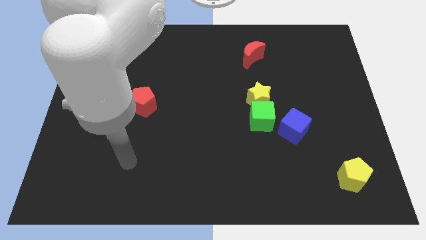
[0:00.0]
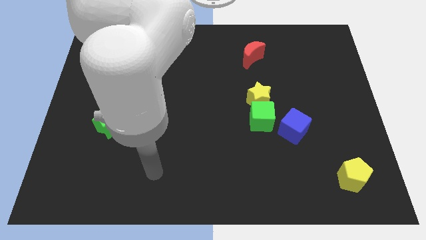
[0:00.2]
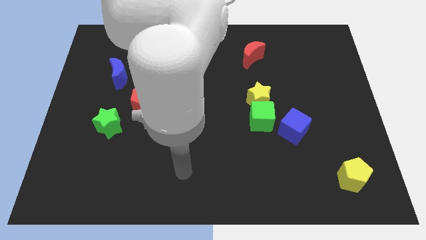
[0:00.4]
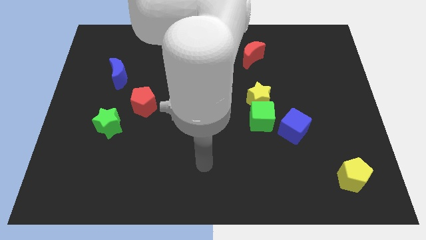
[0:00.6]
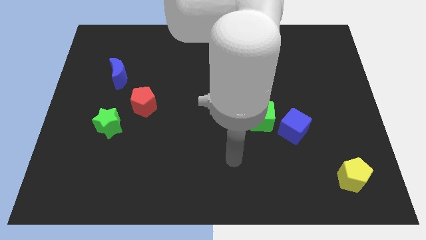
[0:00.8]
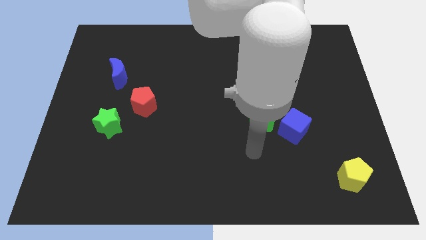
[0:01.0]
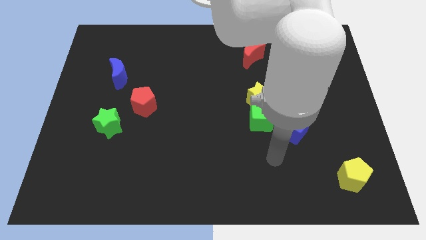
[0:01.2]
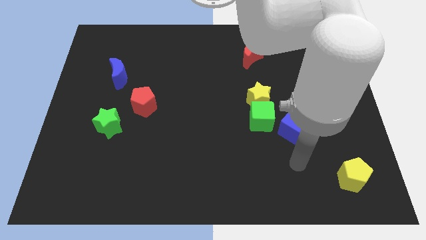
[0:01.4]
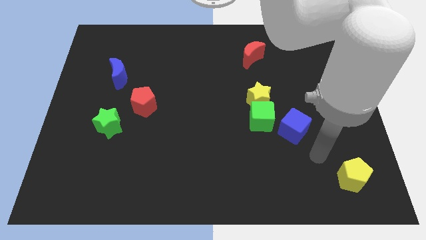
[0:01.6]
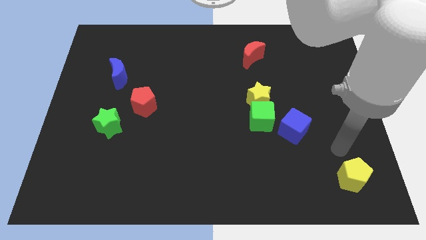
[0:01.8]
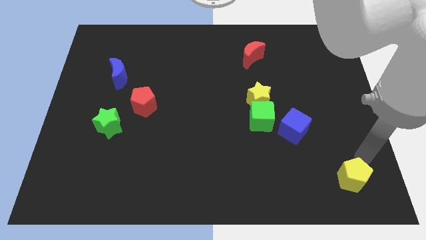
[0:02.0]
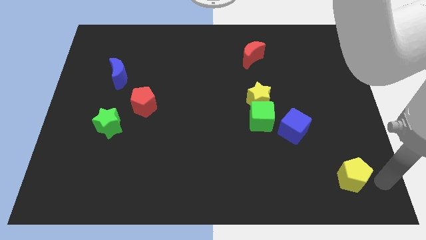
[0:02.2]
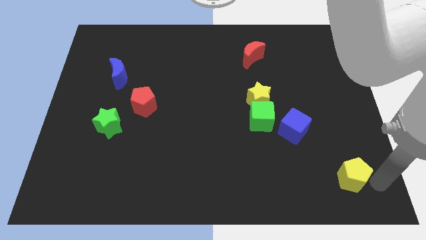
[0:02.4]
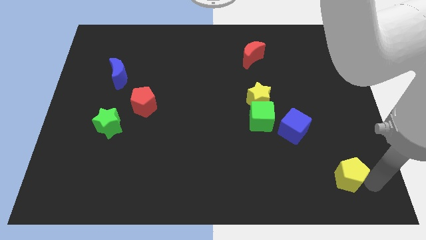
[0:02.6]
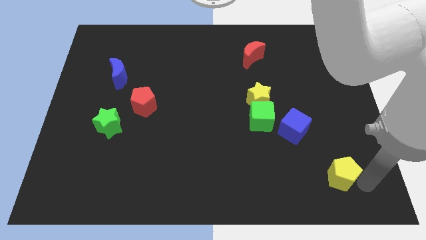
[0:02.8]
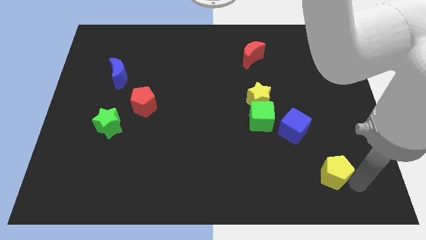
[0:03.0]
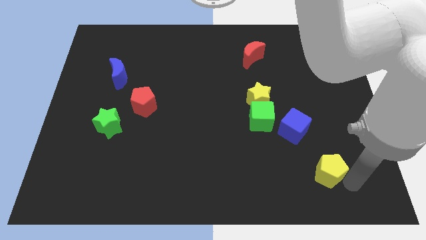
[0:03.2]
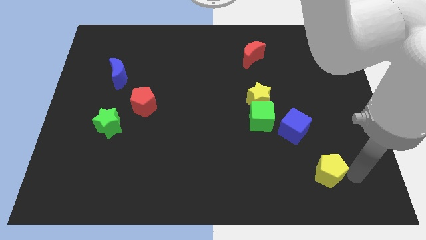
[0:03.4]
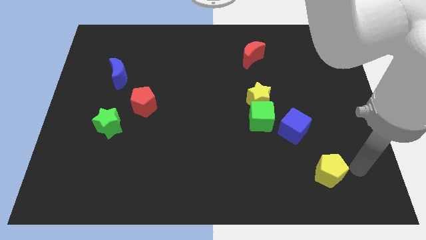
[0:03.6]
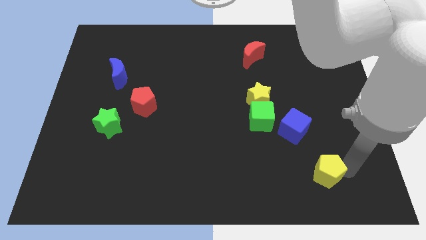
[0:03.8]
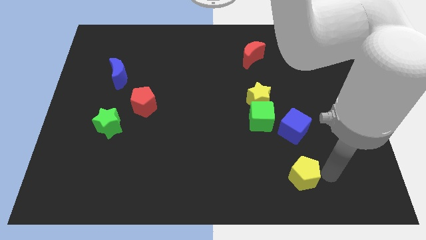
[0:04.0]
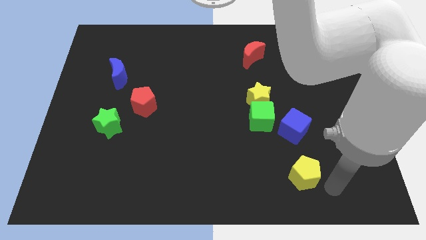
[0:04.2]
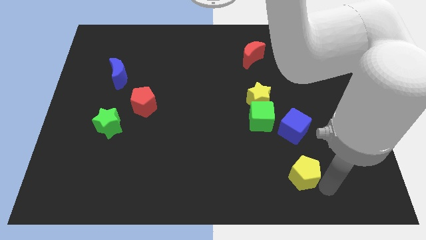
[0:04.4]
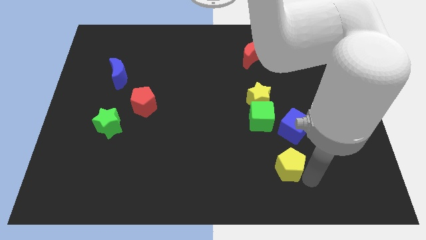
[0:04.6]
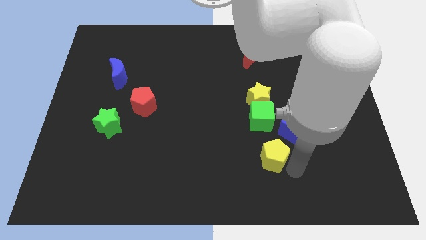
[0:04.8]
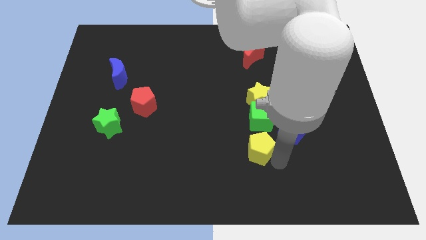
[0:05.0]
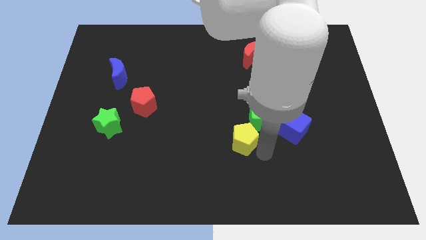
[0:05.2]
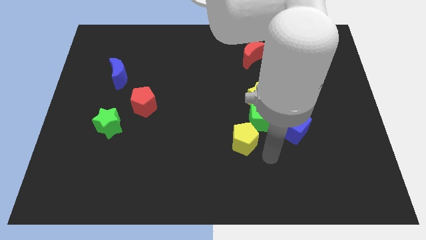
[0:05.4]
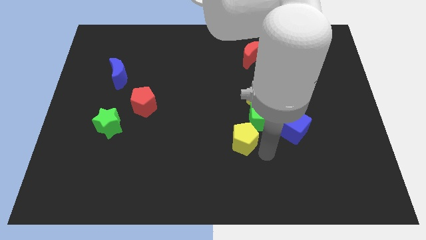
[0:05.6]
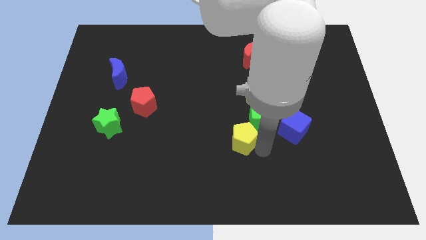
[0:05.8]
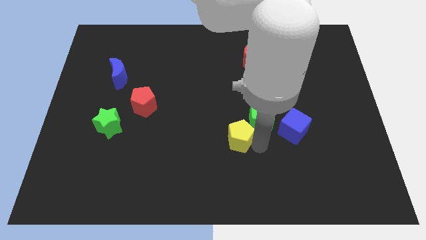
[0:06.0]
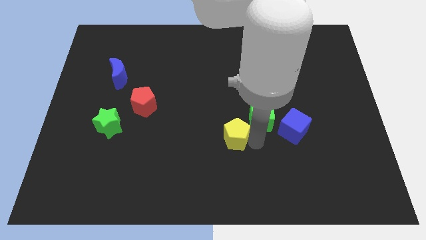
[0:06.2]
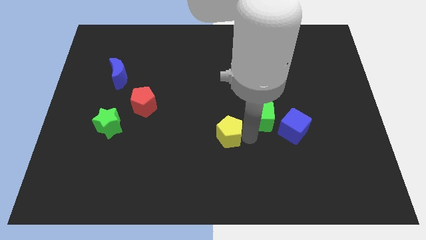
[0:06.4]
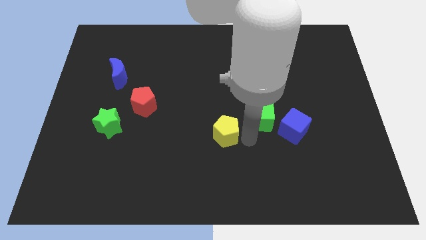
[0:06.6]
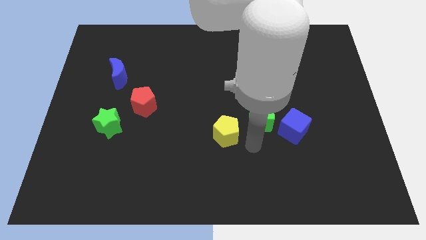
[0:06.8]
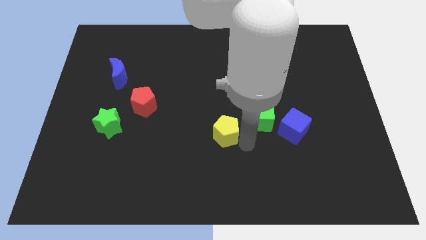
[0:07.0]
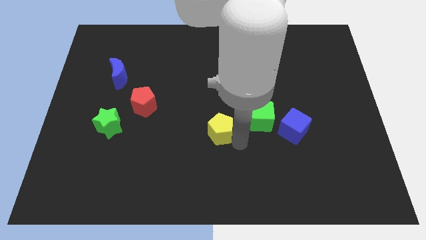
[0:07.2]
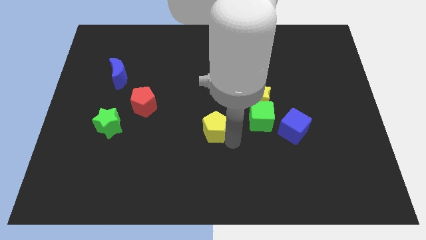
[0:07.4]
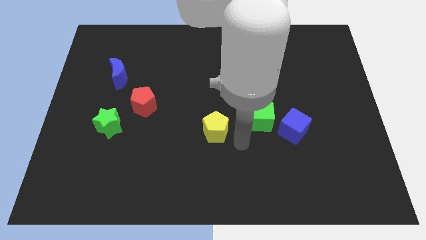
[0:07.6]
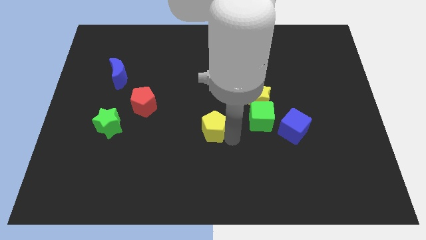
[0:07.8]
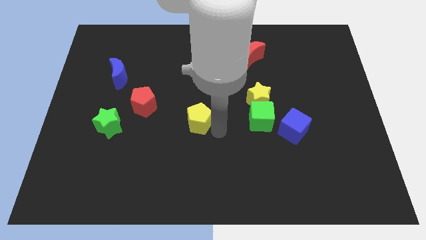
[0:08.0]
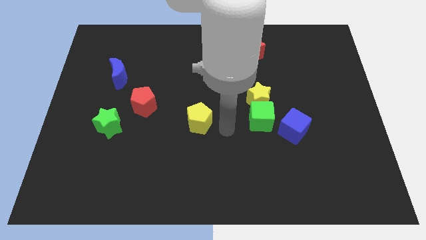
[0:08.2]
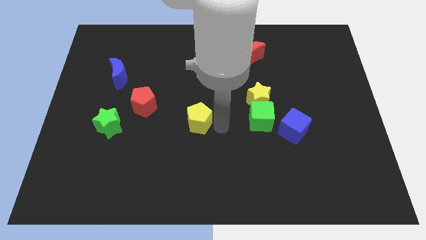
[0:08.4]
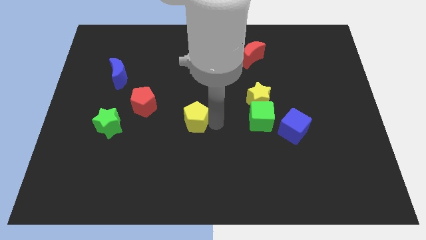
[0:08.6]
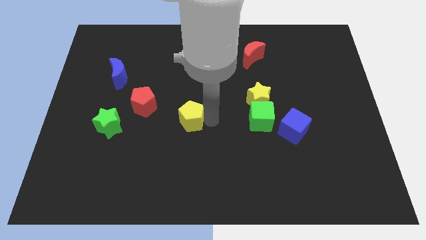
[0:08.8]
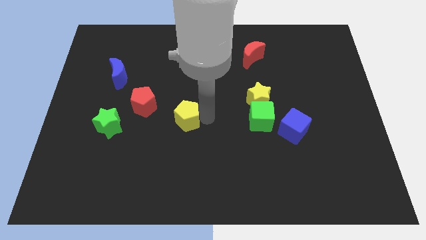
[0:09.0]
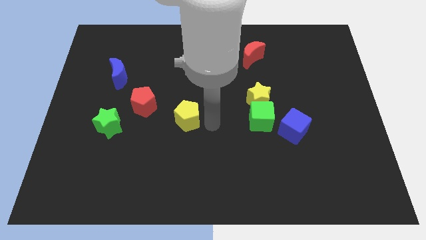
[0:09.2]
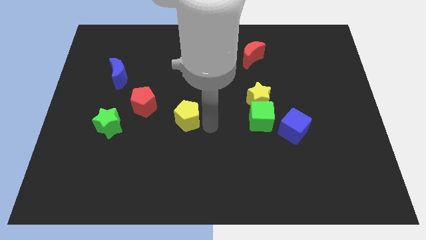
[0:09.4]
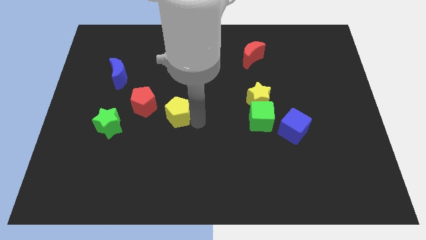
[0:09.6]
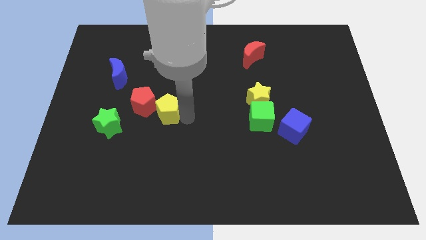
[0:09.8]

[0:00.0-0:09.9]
put the yellow pentagon to the red pentagon

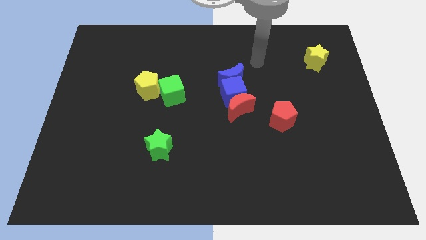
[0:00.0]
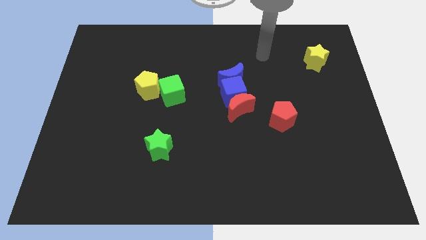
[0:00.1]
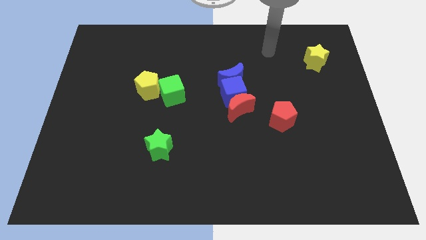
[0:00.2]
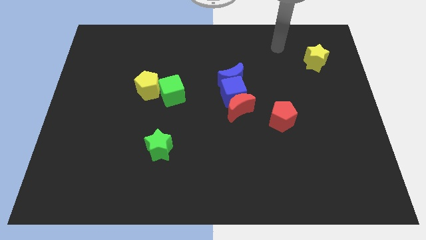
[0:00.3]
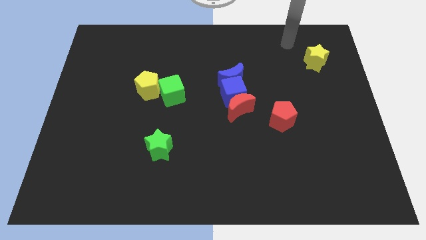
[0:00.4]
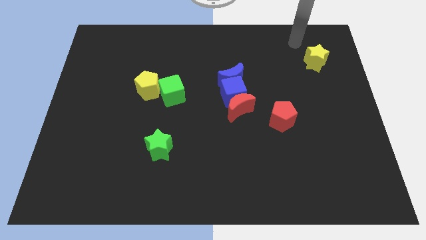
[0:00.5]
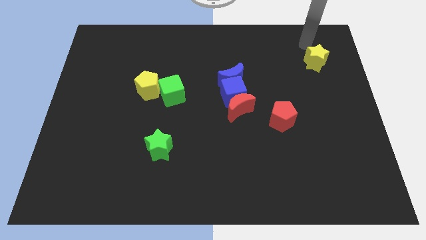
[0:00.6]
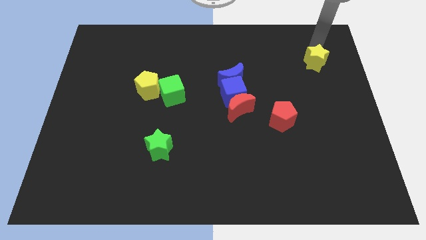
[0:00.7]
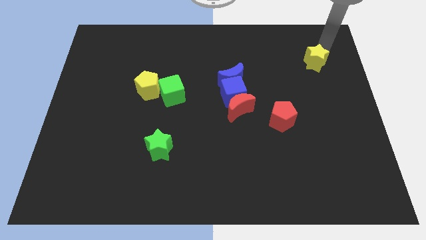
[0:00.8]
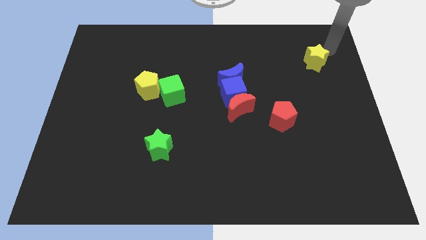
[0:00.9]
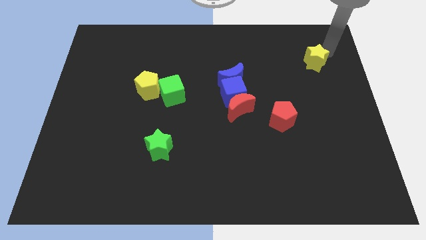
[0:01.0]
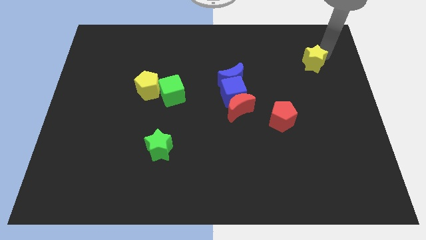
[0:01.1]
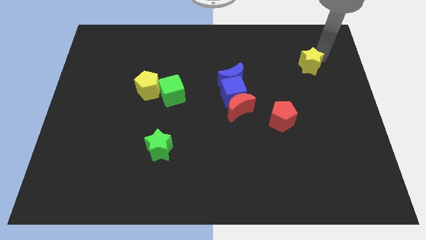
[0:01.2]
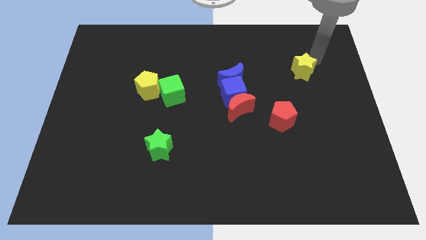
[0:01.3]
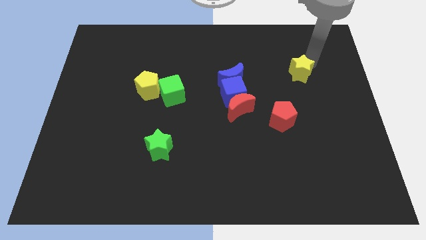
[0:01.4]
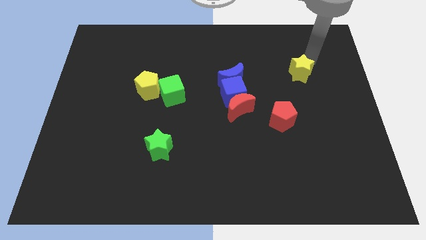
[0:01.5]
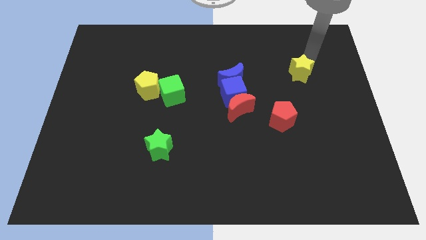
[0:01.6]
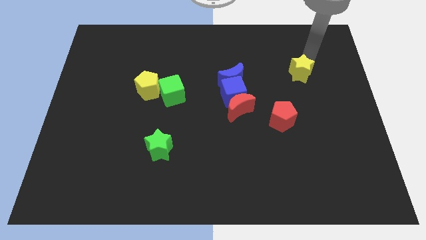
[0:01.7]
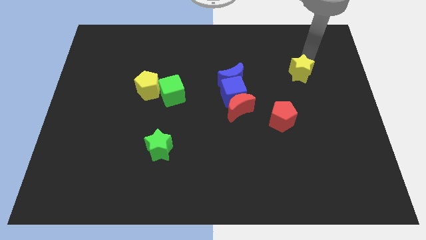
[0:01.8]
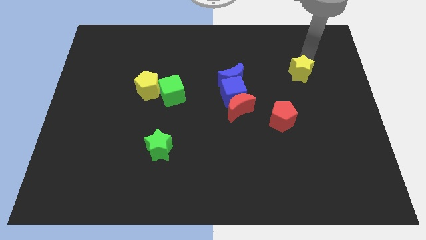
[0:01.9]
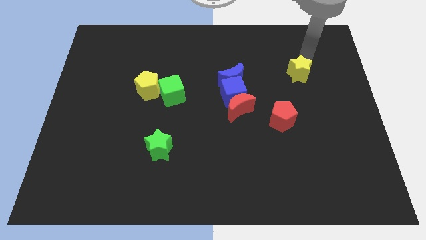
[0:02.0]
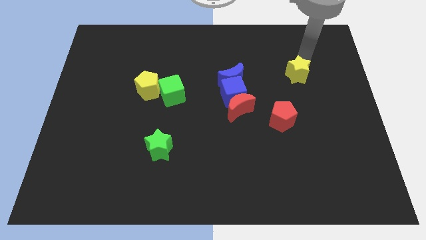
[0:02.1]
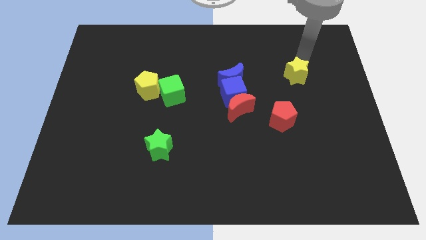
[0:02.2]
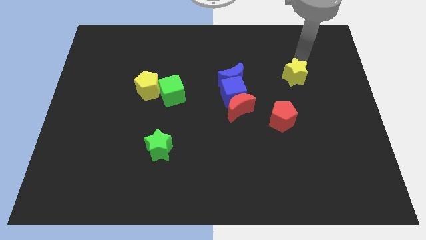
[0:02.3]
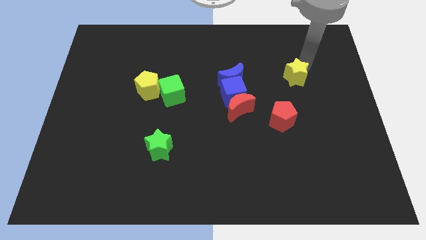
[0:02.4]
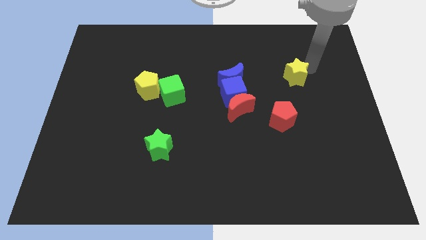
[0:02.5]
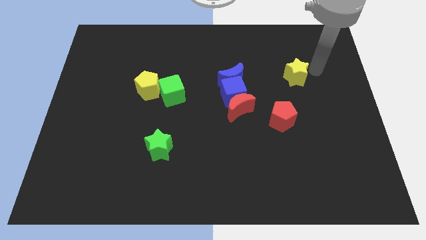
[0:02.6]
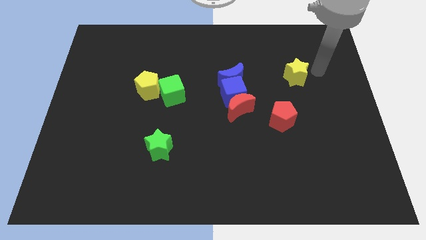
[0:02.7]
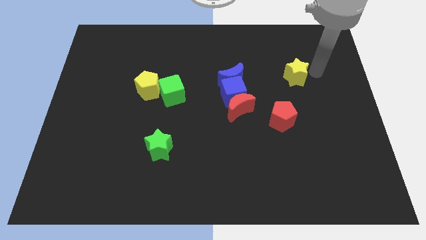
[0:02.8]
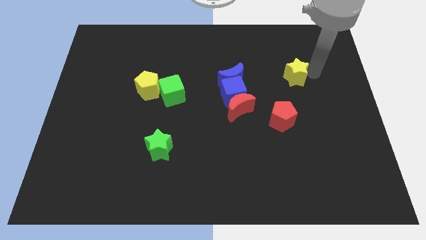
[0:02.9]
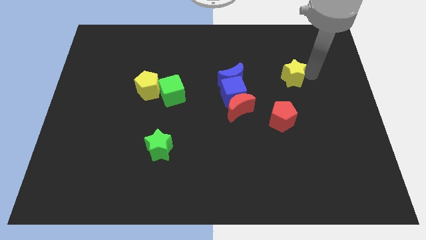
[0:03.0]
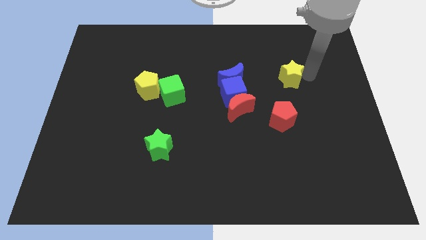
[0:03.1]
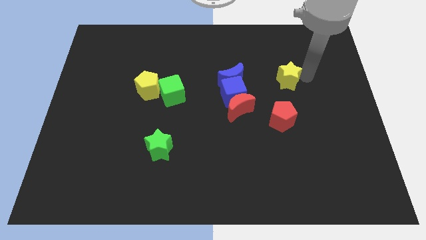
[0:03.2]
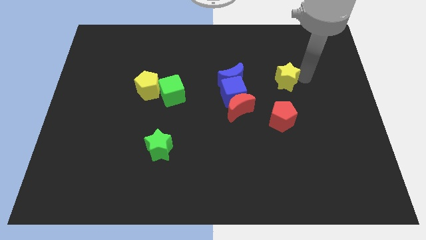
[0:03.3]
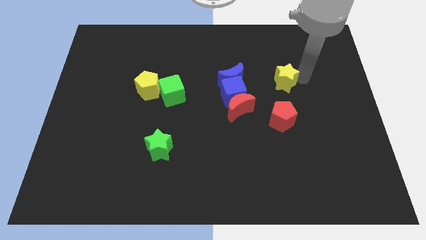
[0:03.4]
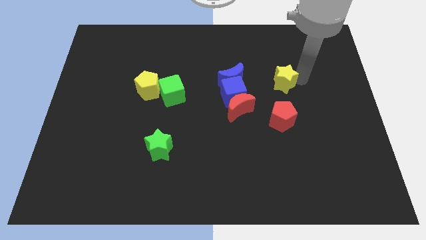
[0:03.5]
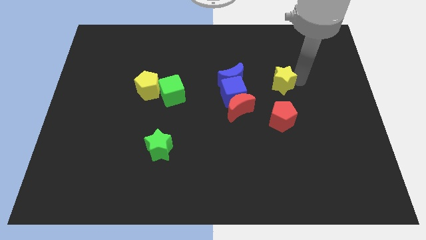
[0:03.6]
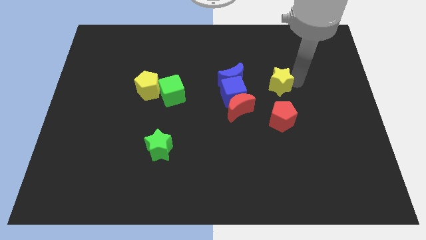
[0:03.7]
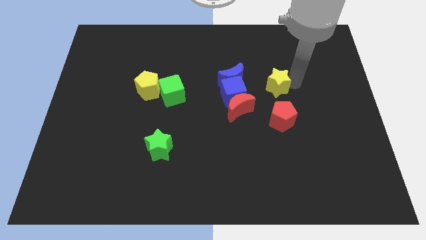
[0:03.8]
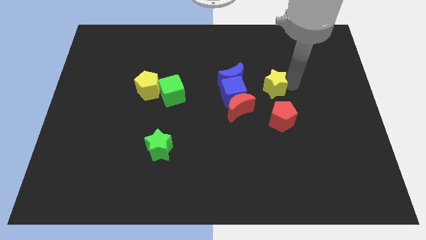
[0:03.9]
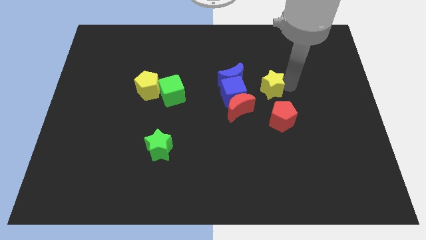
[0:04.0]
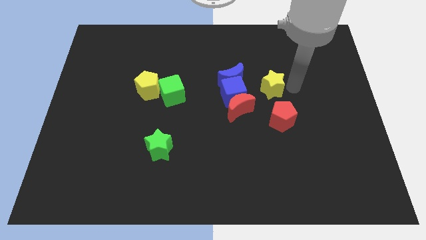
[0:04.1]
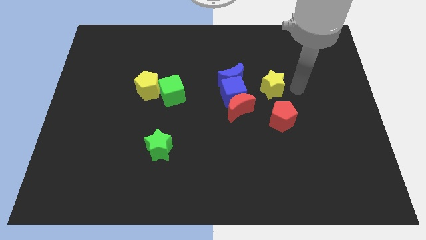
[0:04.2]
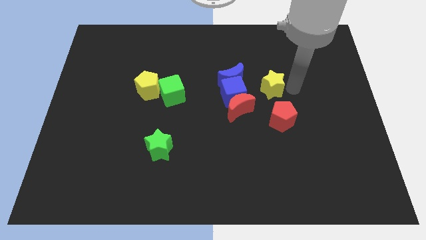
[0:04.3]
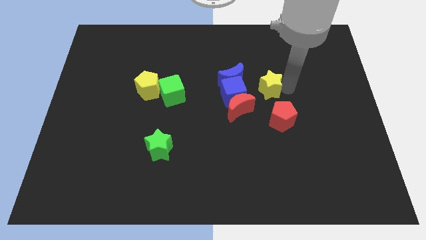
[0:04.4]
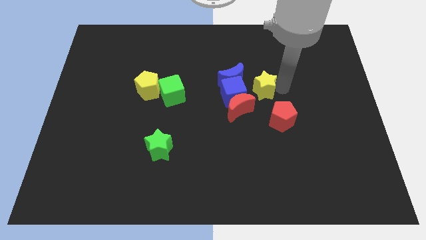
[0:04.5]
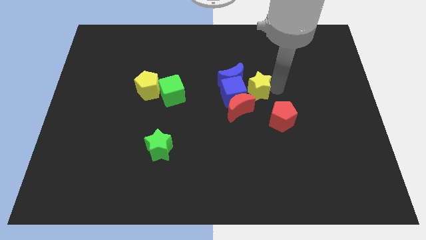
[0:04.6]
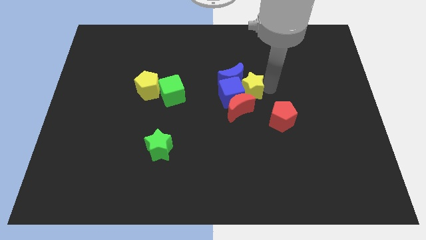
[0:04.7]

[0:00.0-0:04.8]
put the yellow star next to the blue cube
